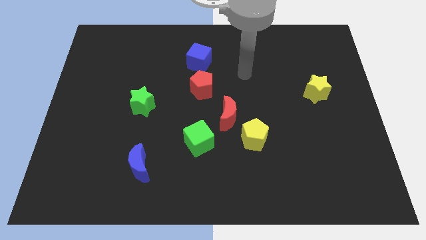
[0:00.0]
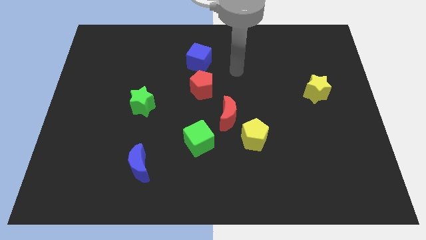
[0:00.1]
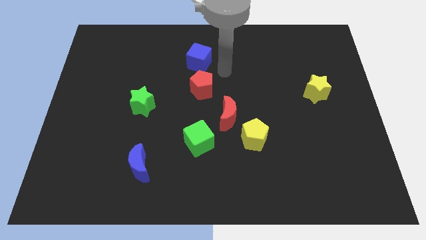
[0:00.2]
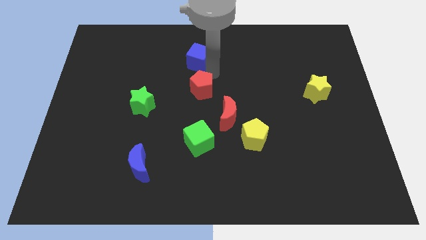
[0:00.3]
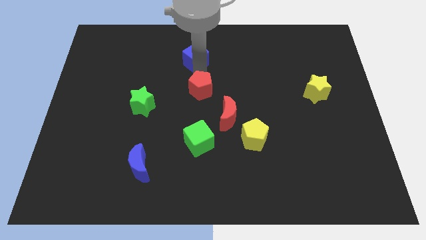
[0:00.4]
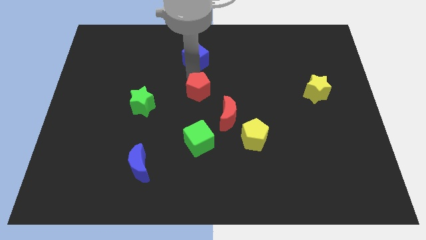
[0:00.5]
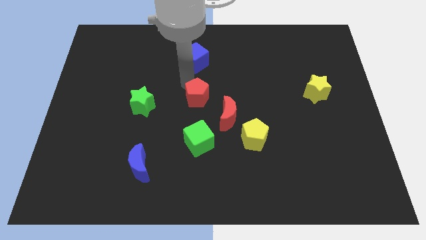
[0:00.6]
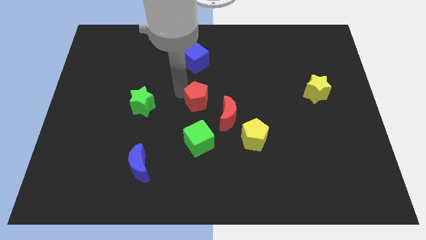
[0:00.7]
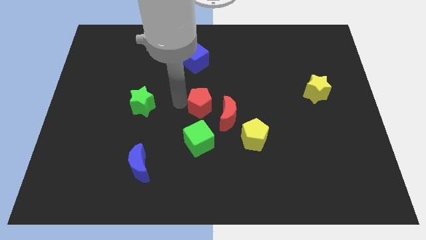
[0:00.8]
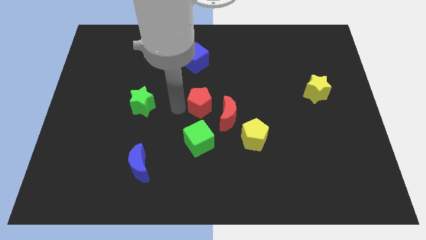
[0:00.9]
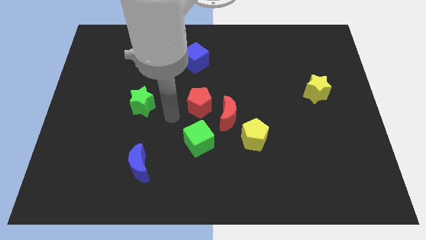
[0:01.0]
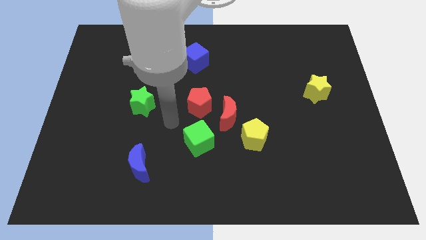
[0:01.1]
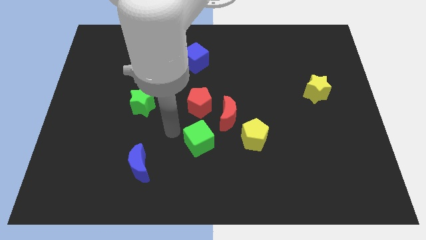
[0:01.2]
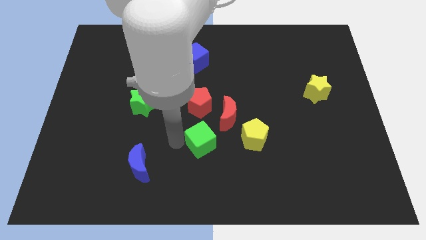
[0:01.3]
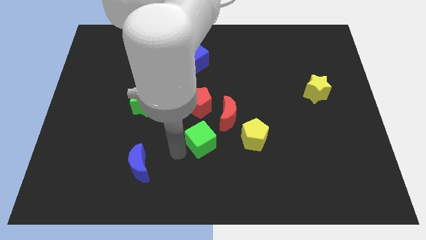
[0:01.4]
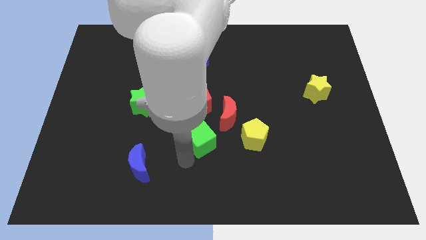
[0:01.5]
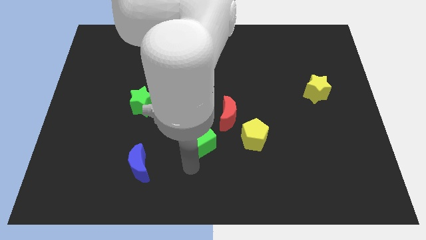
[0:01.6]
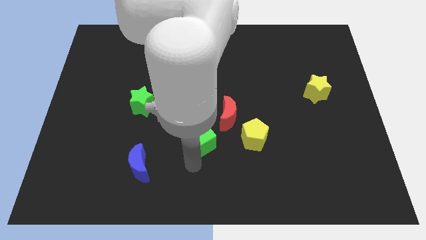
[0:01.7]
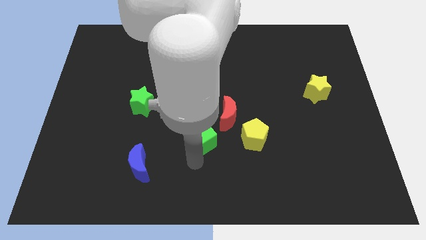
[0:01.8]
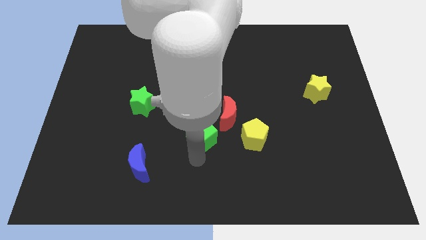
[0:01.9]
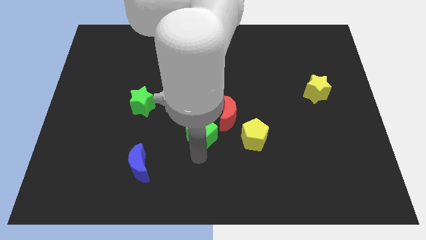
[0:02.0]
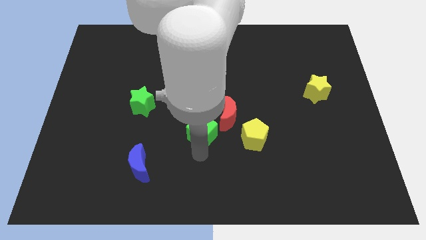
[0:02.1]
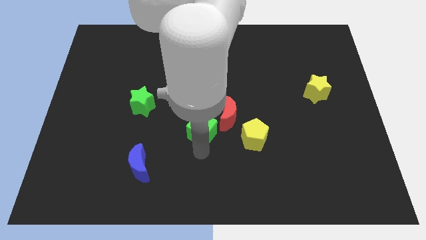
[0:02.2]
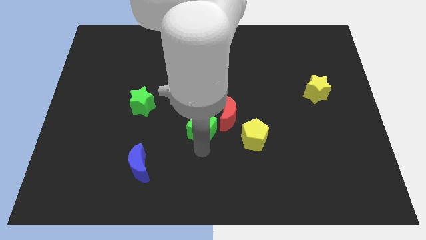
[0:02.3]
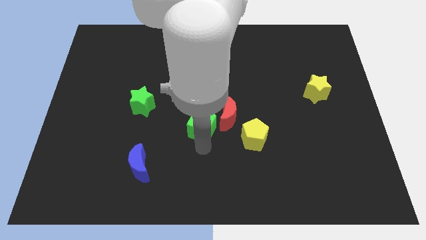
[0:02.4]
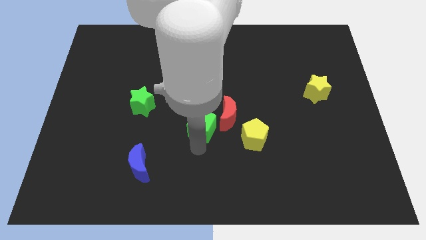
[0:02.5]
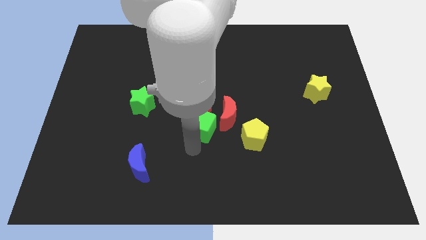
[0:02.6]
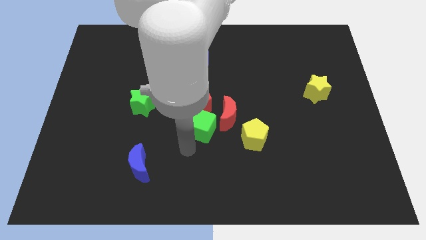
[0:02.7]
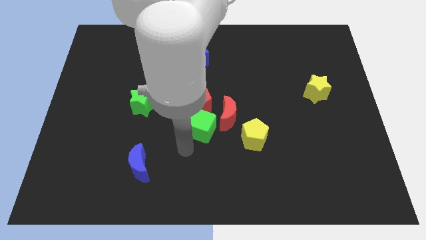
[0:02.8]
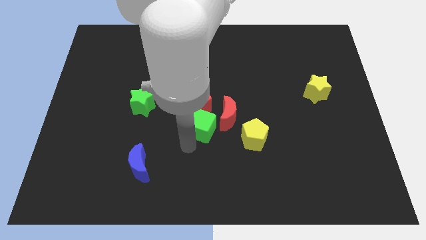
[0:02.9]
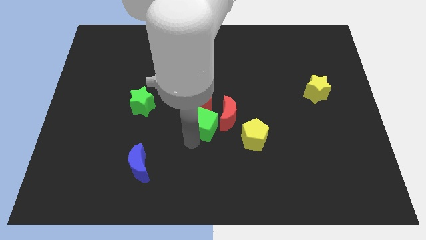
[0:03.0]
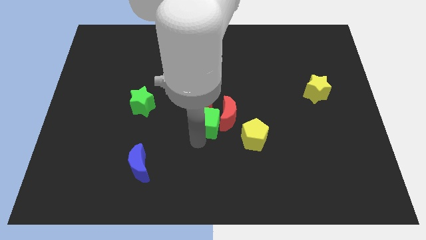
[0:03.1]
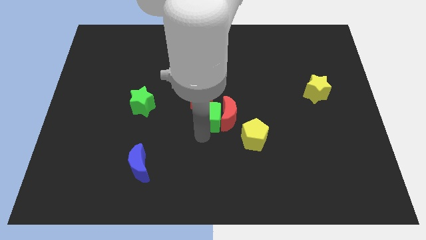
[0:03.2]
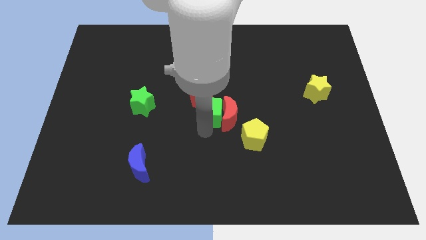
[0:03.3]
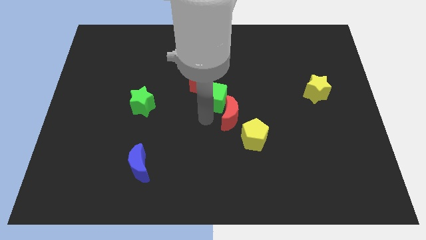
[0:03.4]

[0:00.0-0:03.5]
move the green cube upwards and to the right diagonally somewhat

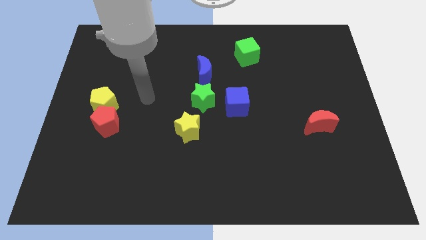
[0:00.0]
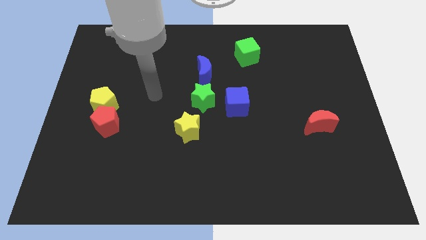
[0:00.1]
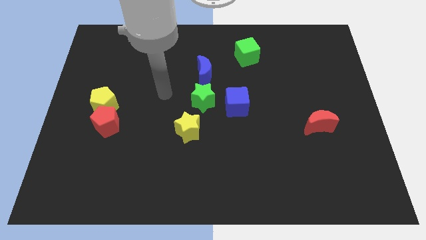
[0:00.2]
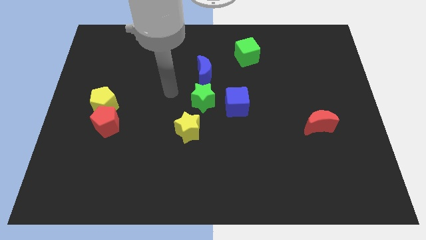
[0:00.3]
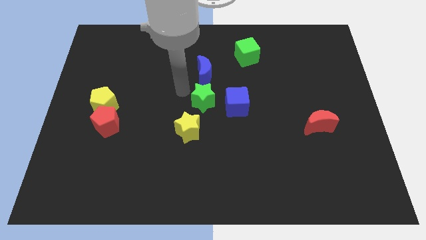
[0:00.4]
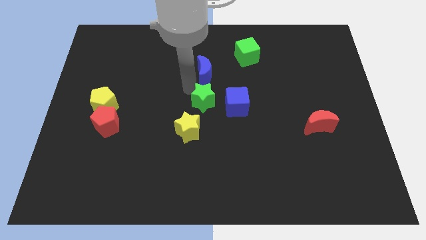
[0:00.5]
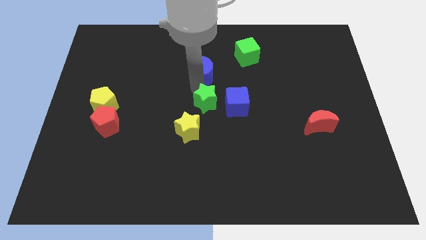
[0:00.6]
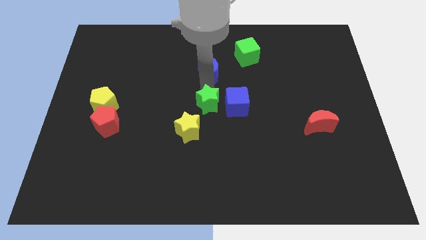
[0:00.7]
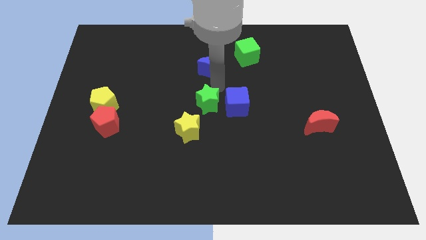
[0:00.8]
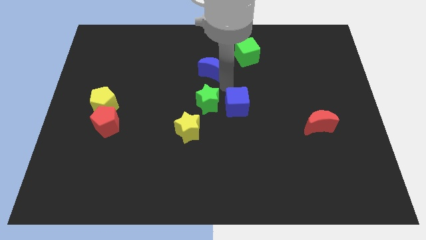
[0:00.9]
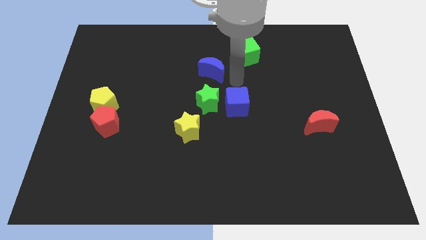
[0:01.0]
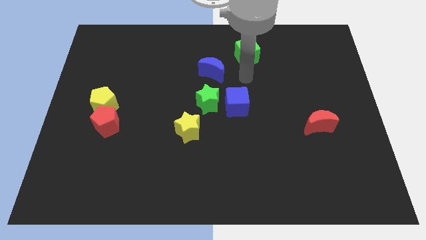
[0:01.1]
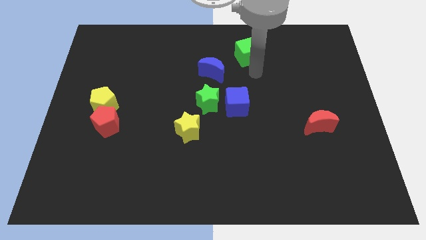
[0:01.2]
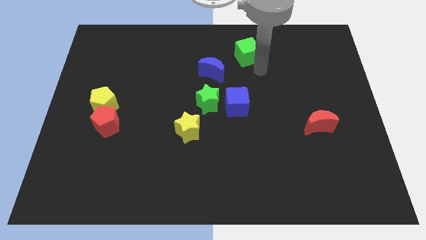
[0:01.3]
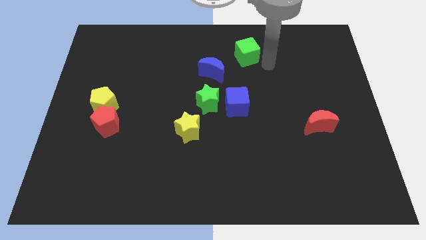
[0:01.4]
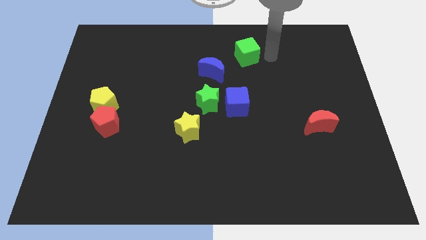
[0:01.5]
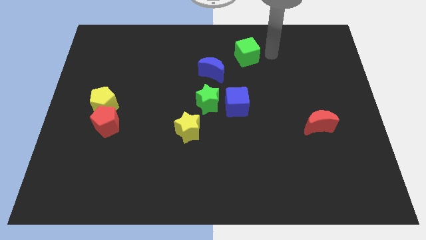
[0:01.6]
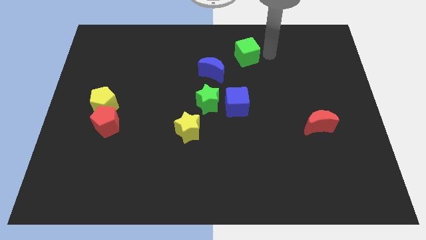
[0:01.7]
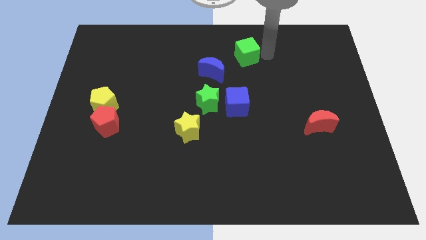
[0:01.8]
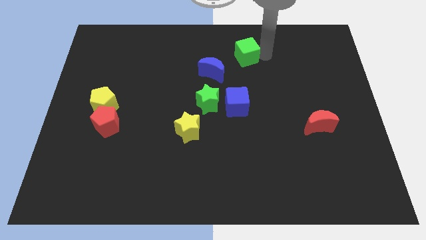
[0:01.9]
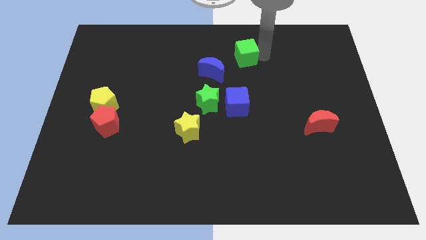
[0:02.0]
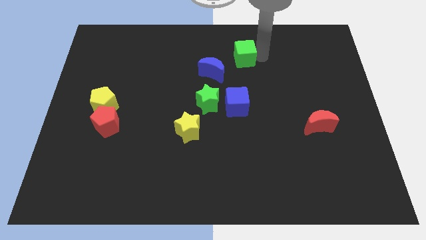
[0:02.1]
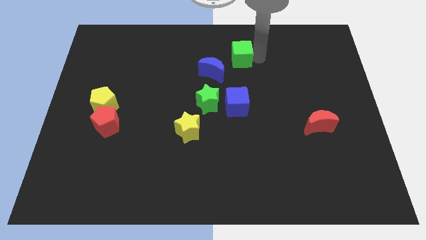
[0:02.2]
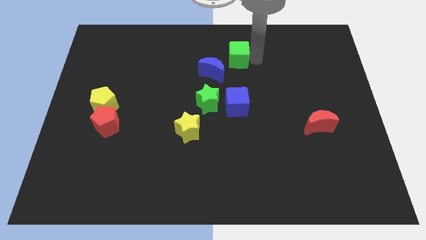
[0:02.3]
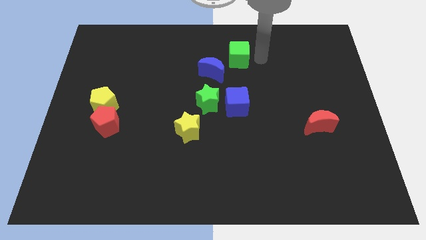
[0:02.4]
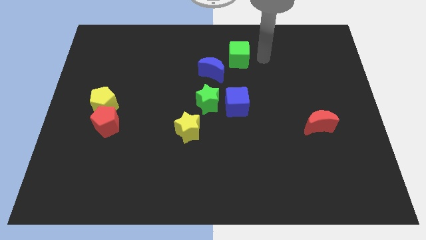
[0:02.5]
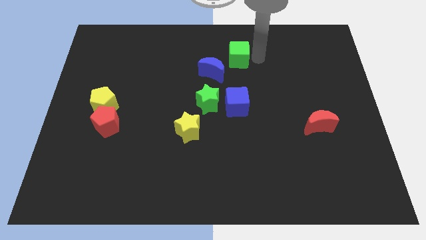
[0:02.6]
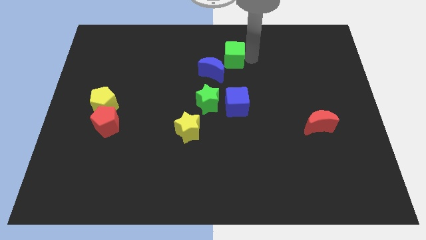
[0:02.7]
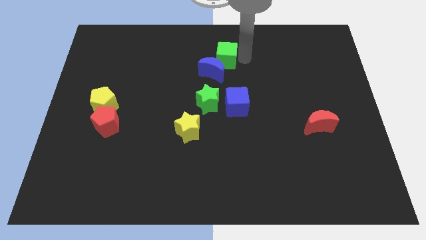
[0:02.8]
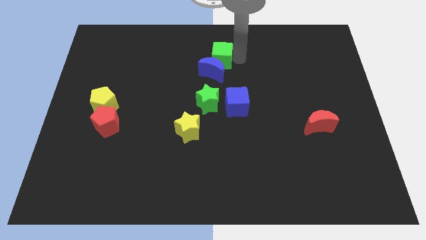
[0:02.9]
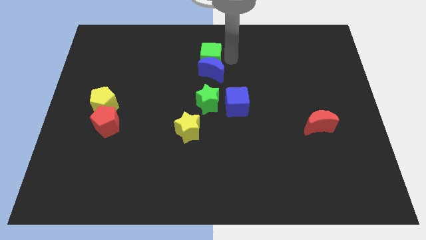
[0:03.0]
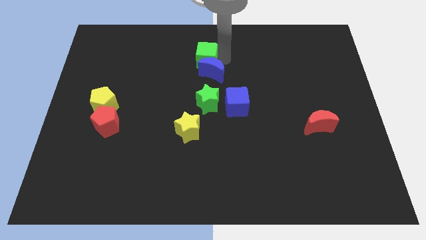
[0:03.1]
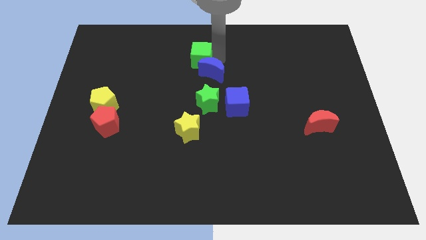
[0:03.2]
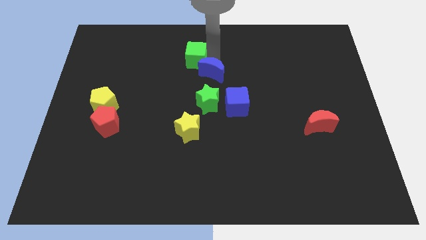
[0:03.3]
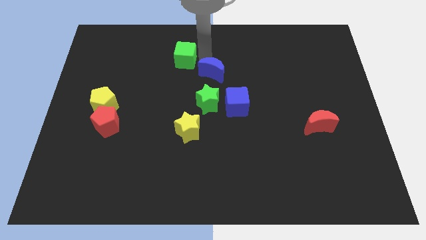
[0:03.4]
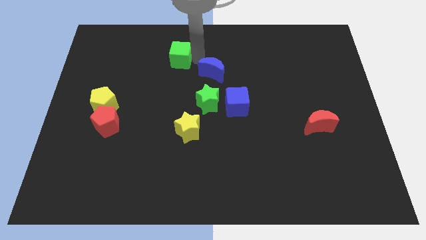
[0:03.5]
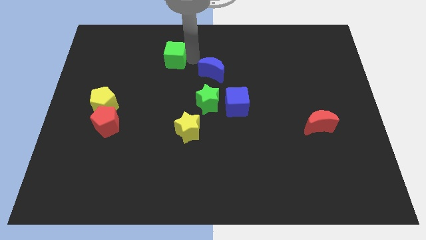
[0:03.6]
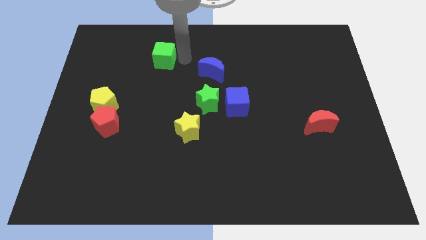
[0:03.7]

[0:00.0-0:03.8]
slide the green cube to the left
